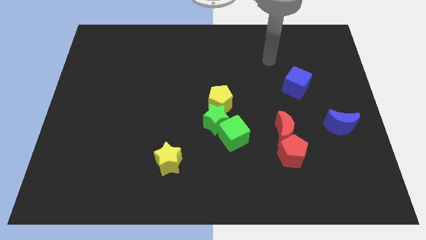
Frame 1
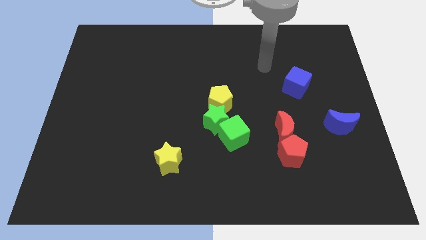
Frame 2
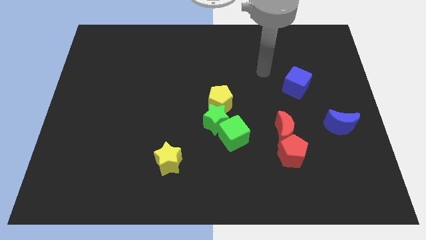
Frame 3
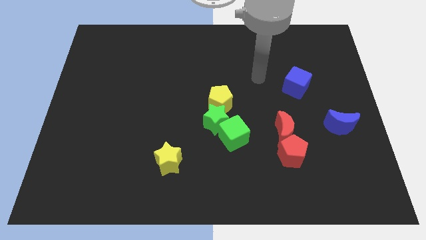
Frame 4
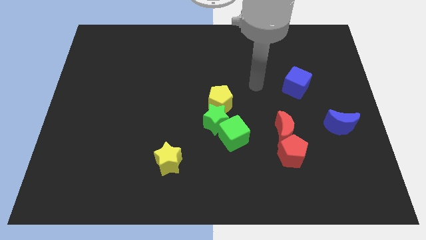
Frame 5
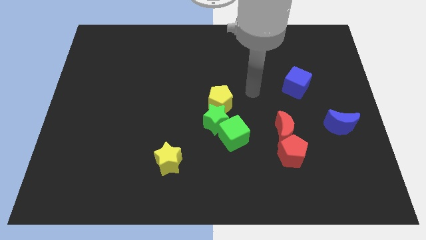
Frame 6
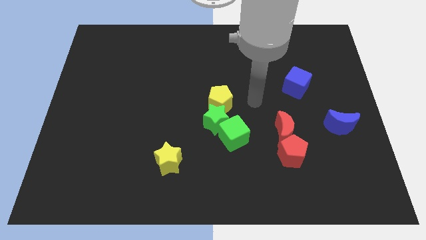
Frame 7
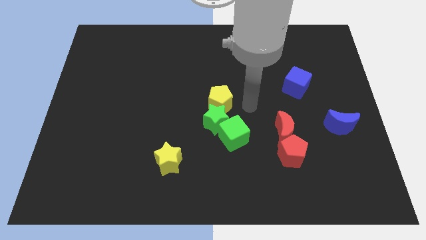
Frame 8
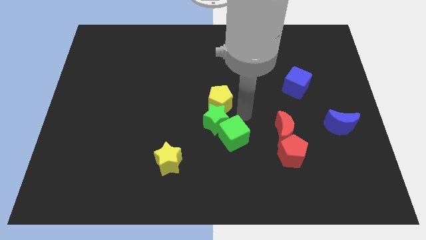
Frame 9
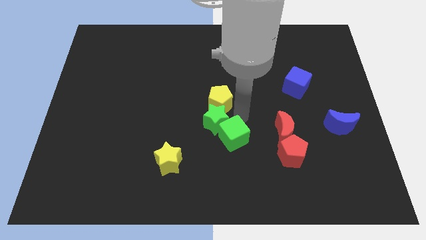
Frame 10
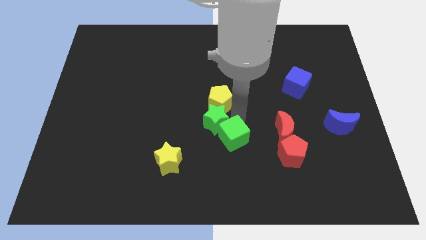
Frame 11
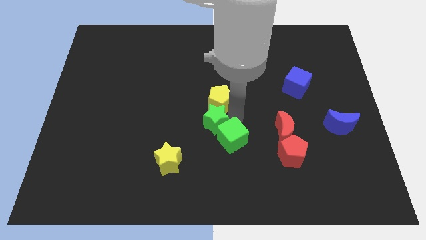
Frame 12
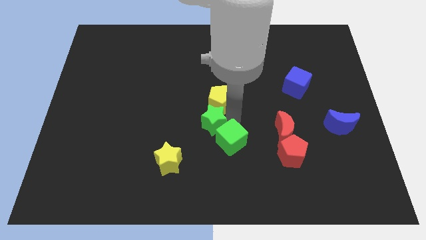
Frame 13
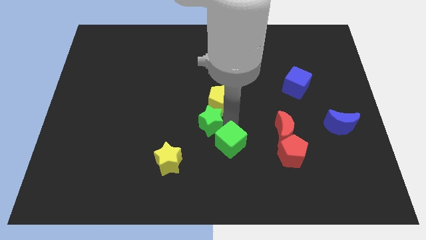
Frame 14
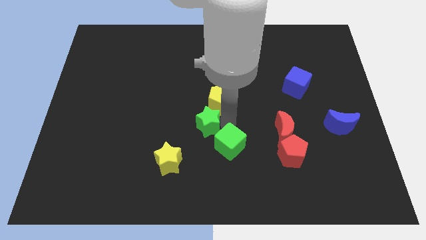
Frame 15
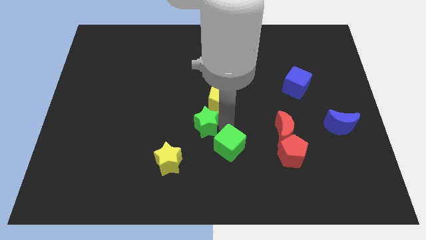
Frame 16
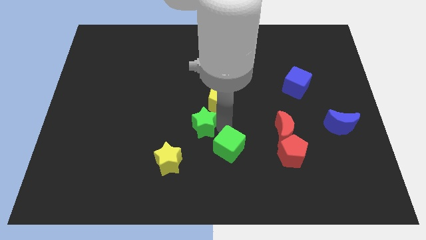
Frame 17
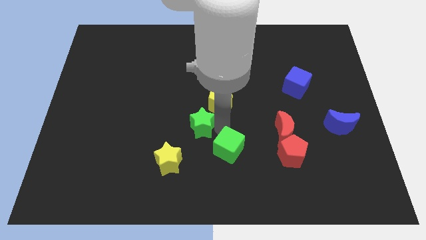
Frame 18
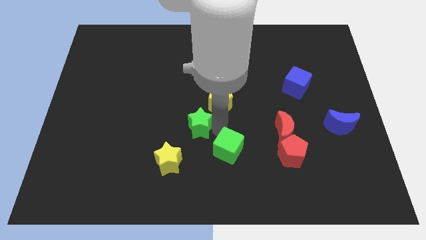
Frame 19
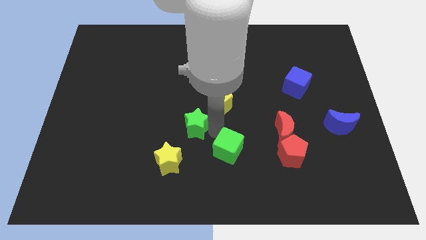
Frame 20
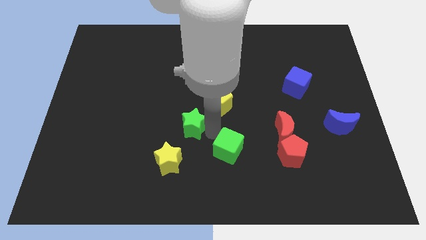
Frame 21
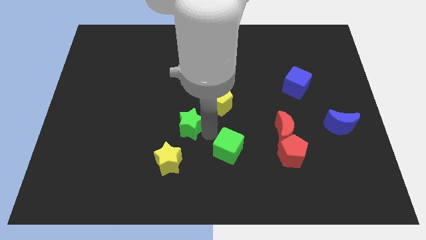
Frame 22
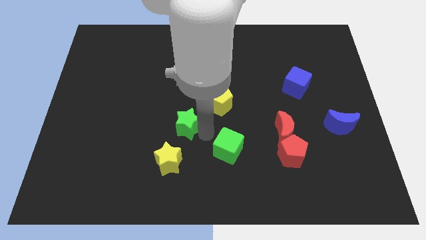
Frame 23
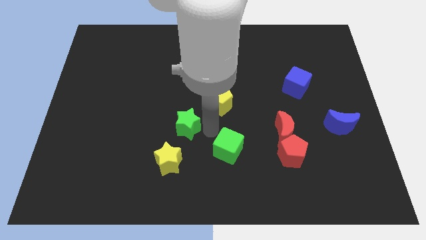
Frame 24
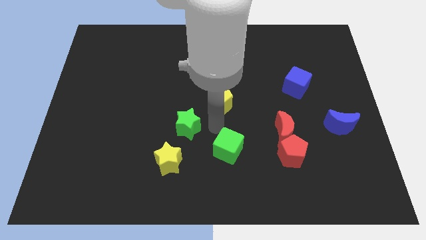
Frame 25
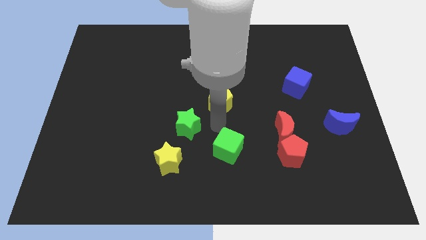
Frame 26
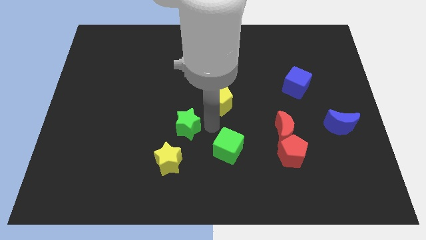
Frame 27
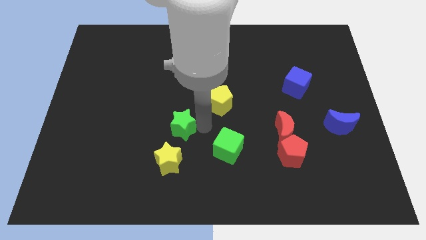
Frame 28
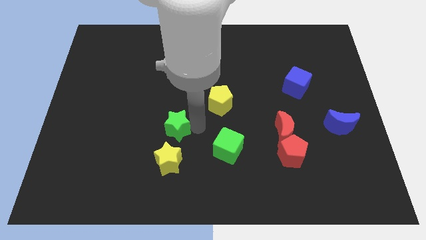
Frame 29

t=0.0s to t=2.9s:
pull the green star apart from the yellow pentagon and green cube

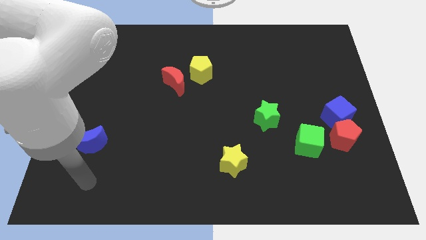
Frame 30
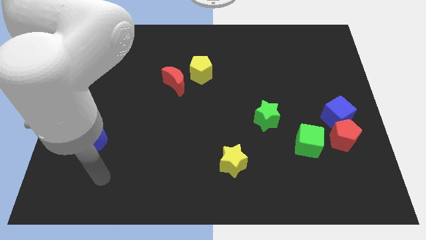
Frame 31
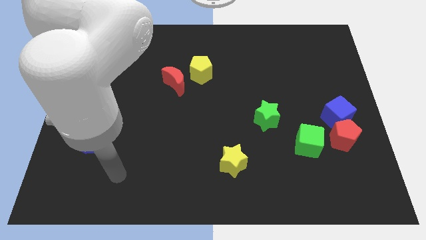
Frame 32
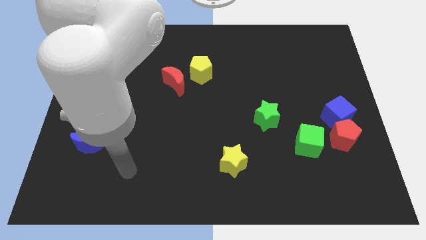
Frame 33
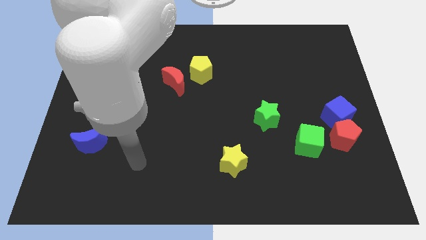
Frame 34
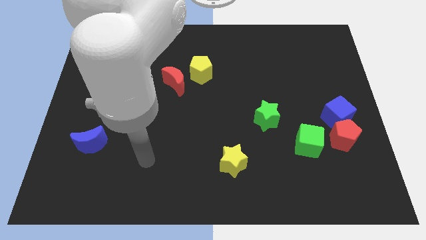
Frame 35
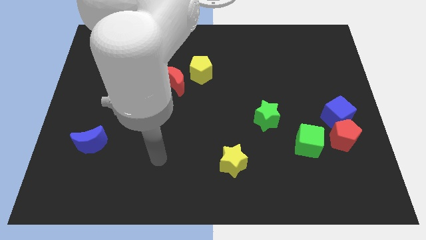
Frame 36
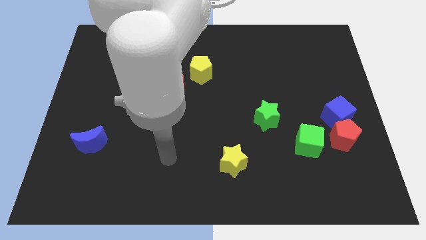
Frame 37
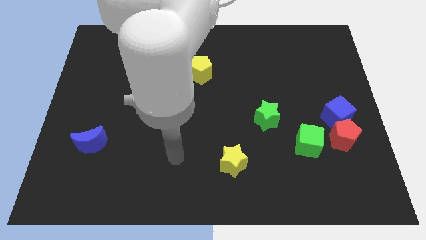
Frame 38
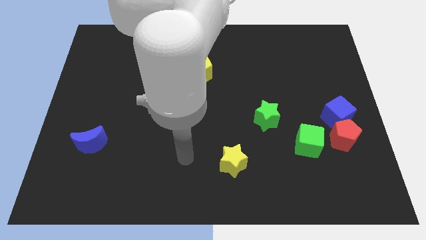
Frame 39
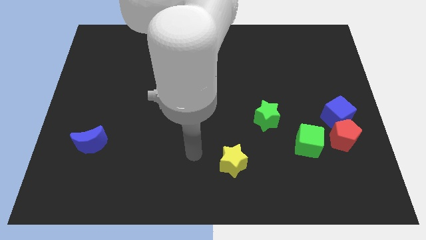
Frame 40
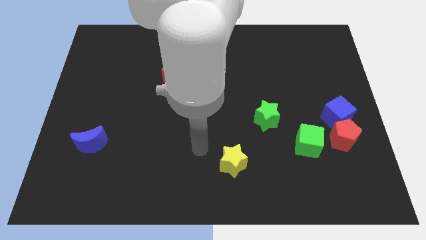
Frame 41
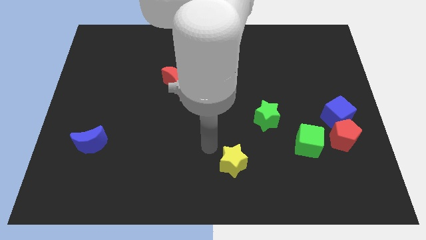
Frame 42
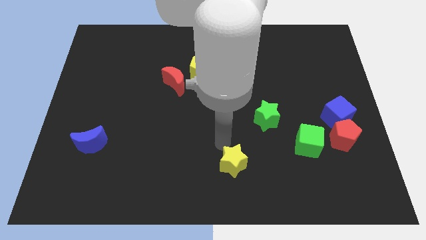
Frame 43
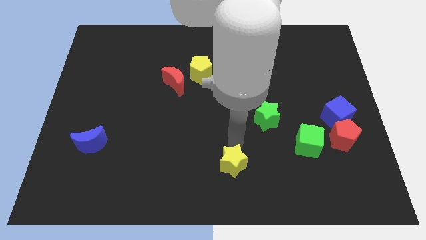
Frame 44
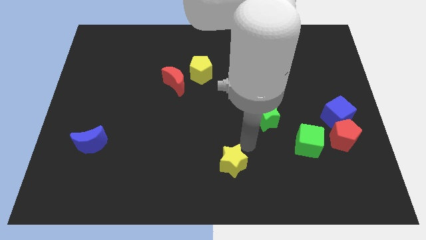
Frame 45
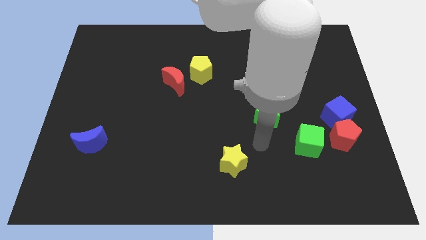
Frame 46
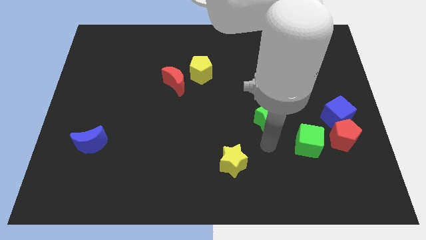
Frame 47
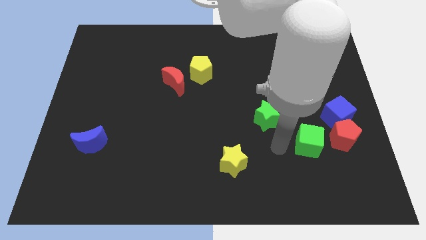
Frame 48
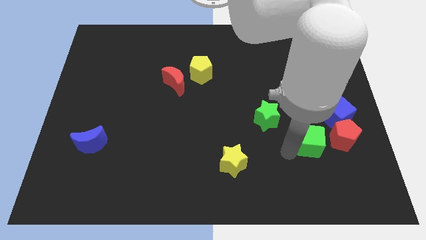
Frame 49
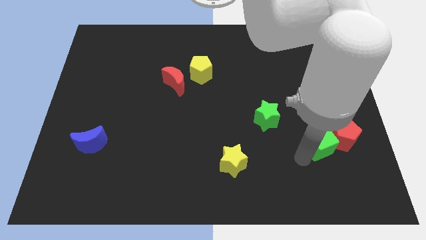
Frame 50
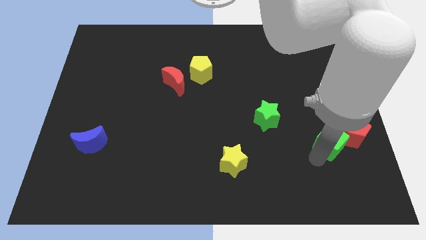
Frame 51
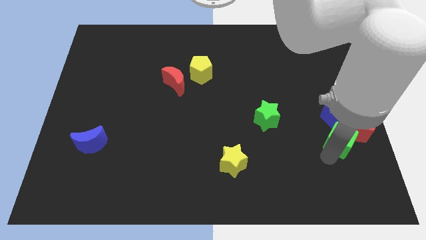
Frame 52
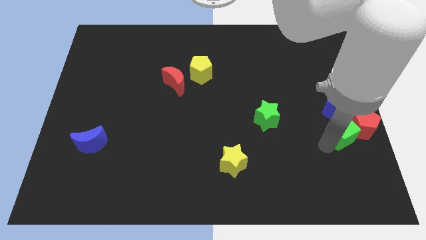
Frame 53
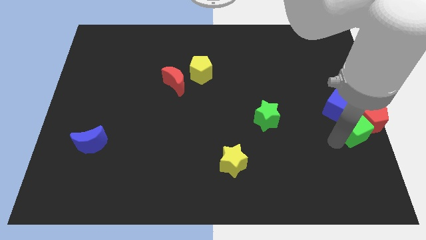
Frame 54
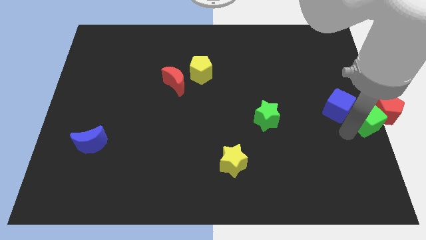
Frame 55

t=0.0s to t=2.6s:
pull the blue cube apart from the red pentagon

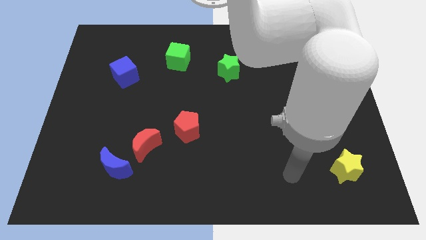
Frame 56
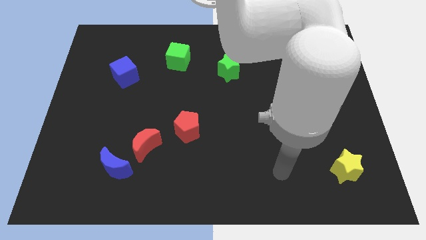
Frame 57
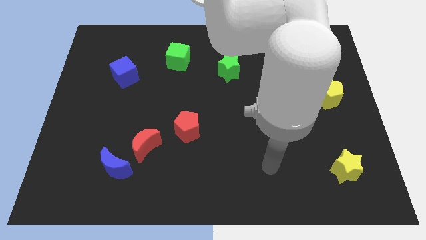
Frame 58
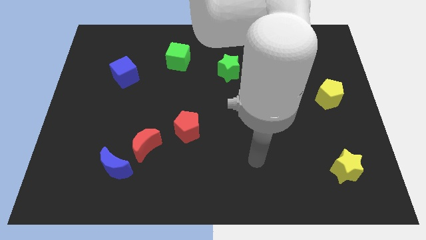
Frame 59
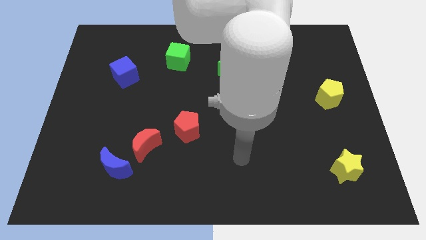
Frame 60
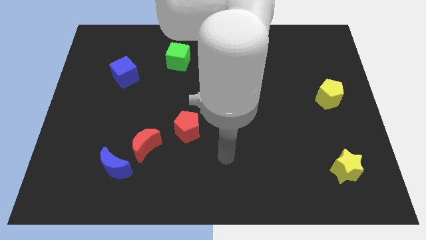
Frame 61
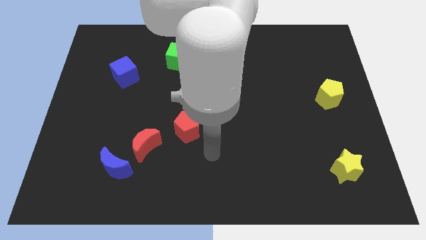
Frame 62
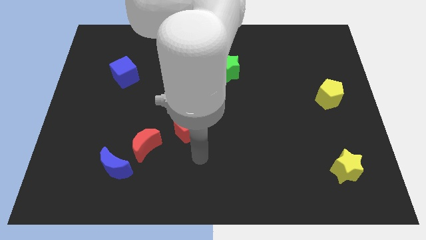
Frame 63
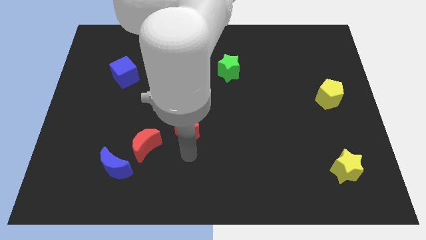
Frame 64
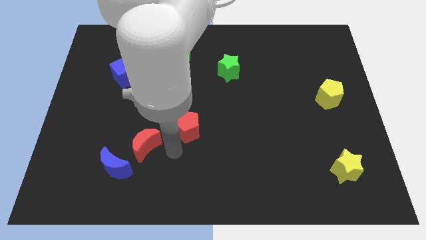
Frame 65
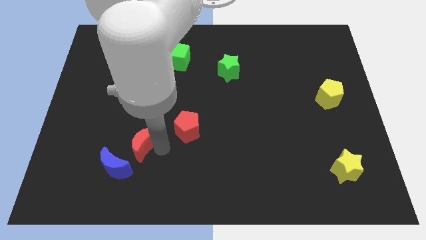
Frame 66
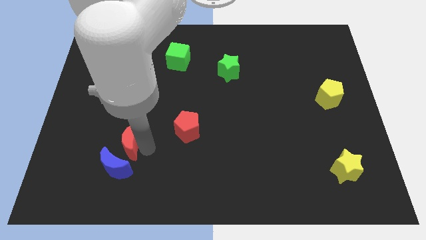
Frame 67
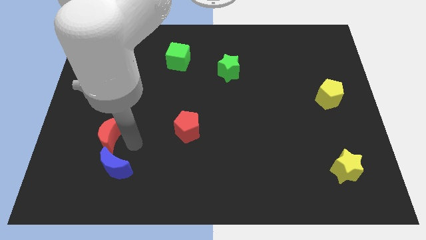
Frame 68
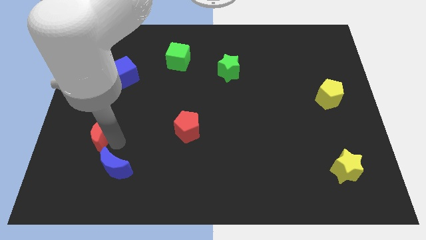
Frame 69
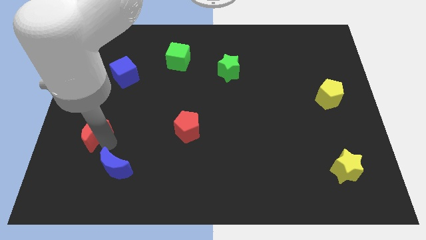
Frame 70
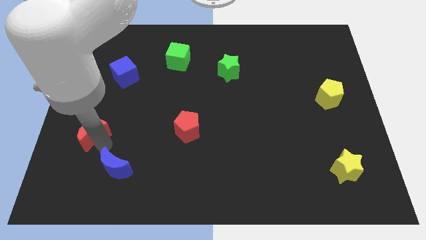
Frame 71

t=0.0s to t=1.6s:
pull the blue moon apart from the red moon

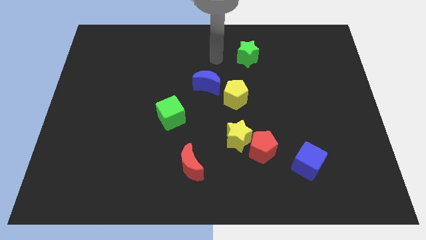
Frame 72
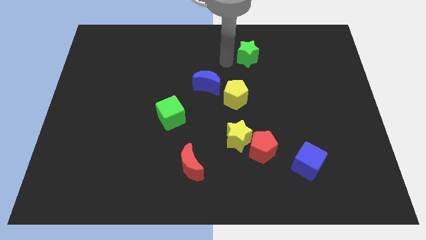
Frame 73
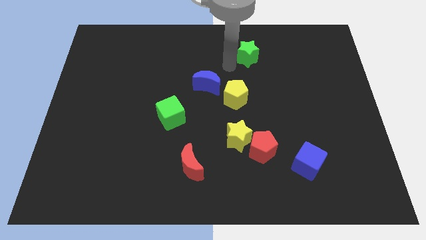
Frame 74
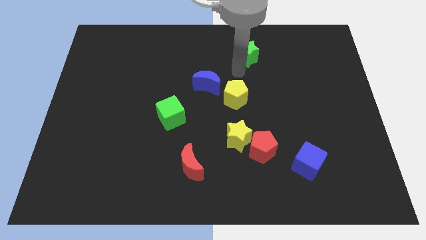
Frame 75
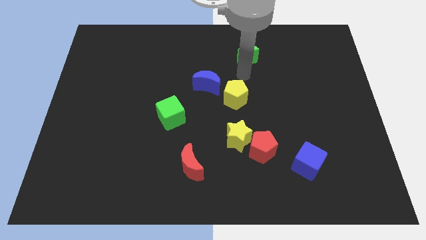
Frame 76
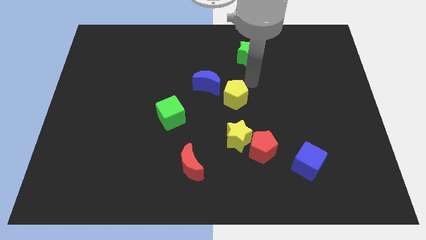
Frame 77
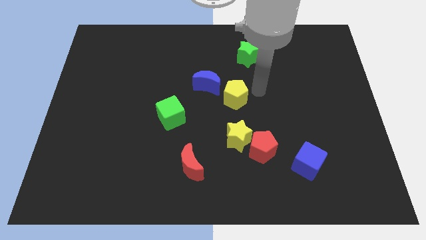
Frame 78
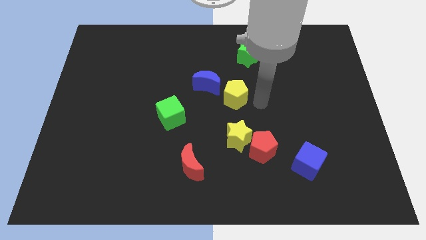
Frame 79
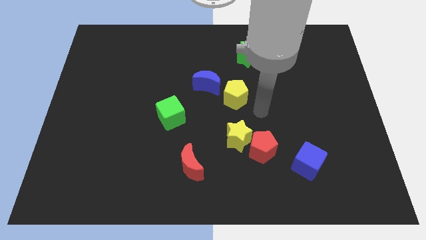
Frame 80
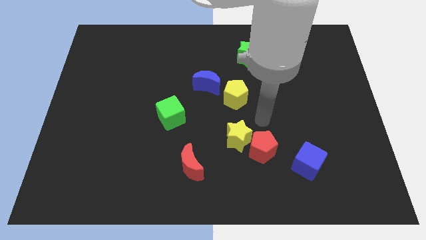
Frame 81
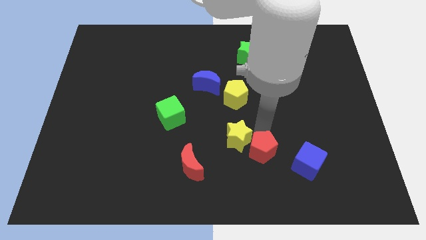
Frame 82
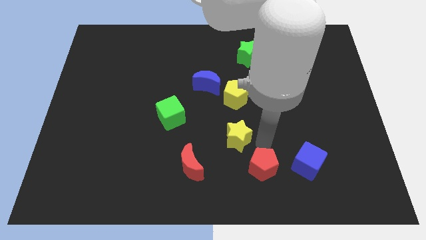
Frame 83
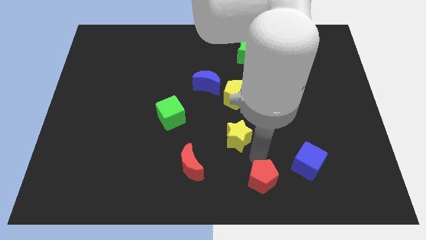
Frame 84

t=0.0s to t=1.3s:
separate the yellow star from the red pentagon

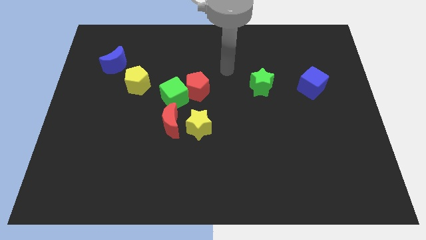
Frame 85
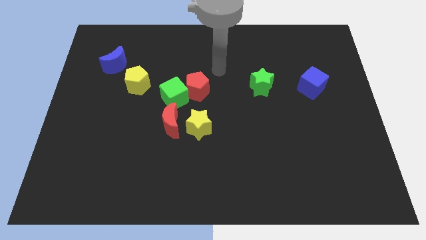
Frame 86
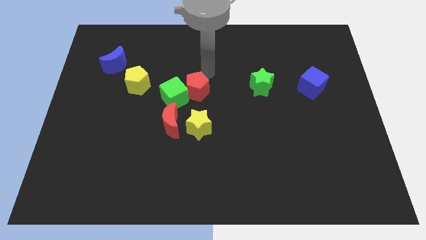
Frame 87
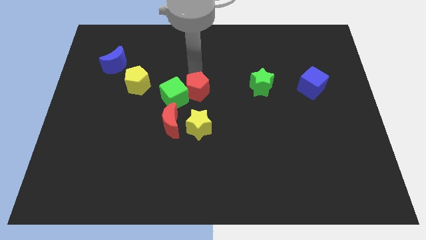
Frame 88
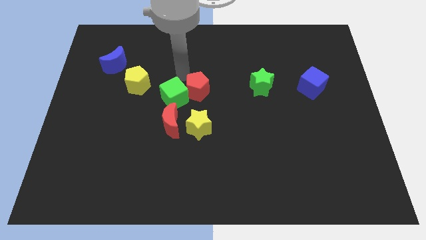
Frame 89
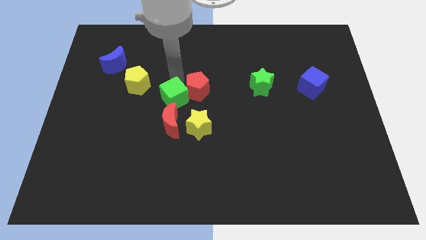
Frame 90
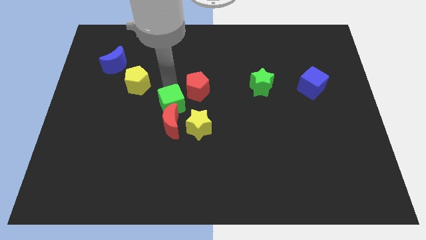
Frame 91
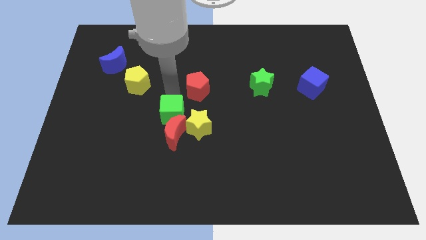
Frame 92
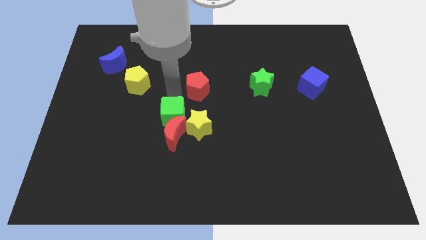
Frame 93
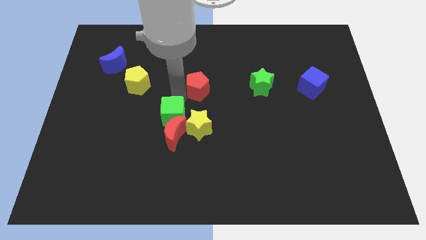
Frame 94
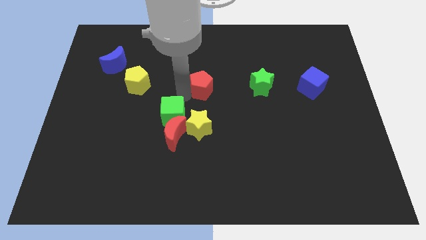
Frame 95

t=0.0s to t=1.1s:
move the red pentagon away from the green cube
